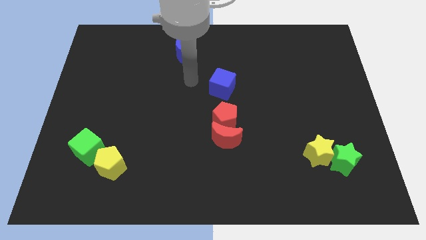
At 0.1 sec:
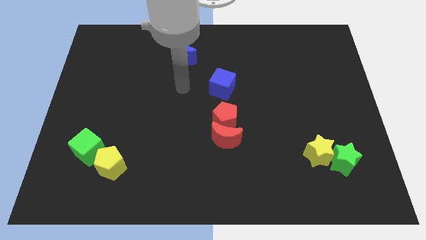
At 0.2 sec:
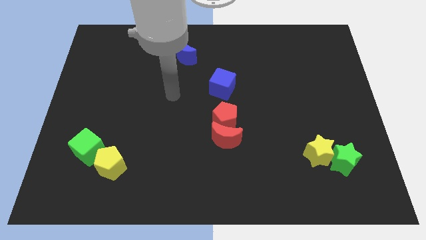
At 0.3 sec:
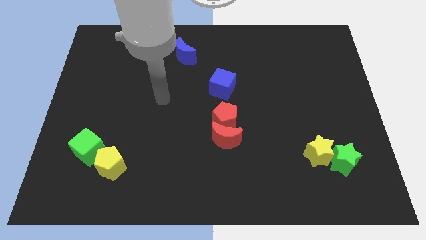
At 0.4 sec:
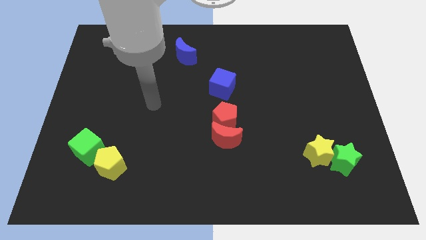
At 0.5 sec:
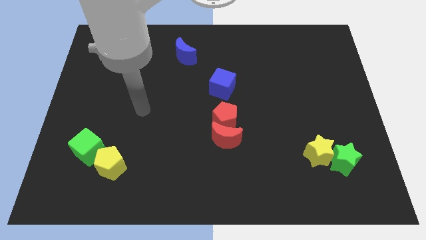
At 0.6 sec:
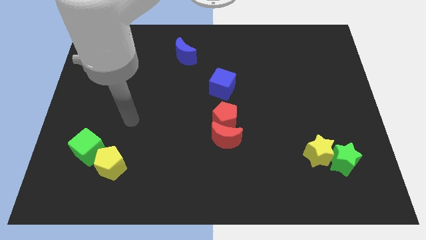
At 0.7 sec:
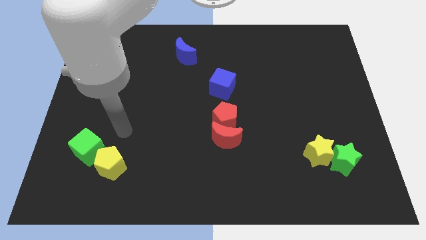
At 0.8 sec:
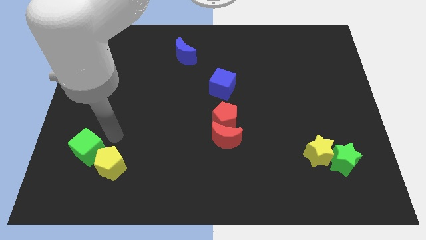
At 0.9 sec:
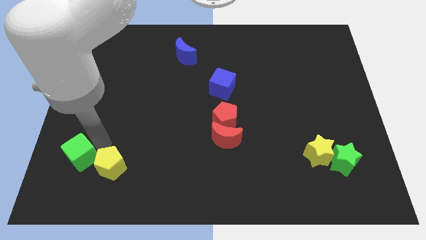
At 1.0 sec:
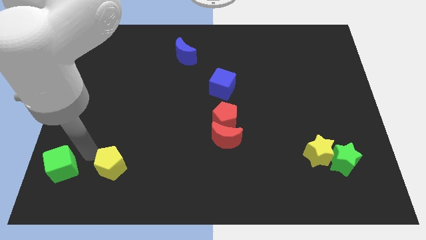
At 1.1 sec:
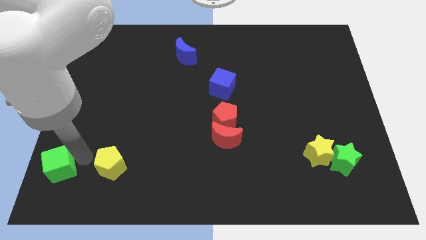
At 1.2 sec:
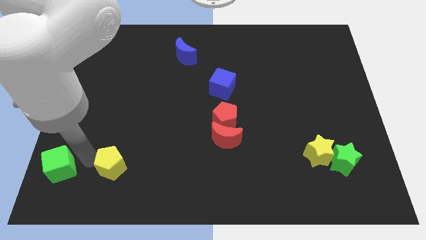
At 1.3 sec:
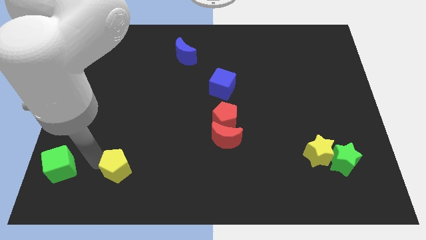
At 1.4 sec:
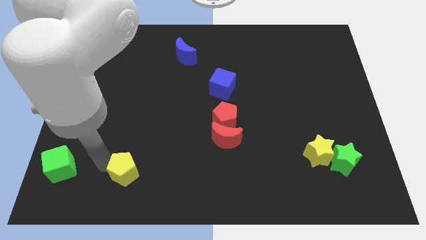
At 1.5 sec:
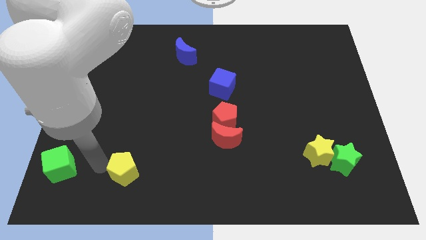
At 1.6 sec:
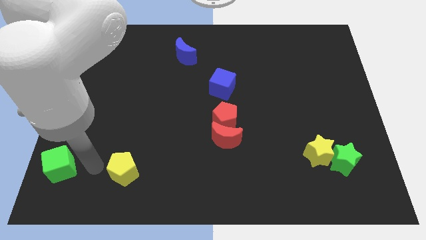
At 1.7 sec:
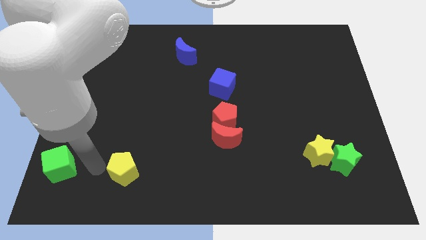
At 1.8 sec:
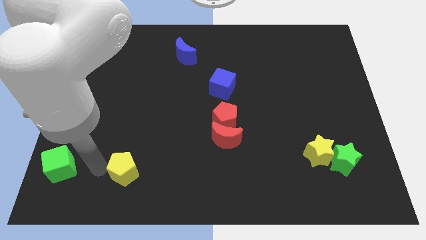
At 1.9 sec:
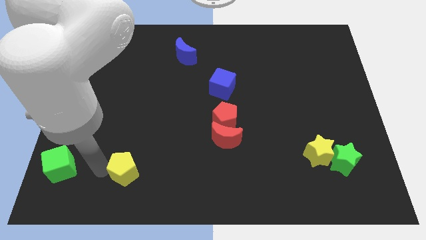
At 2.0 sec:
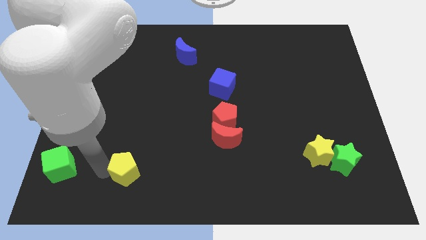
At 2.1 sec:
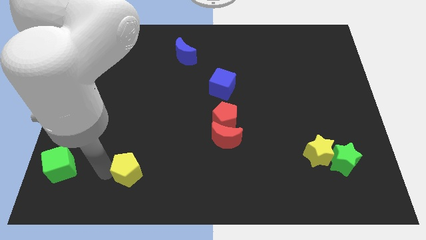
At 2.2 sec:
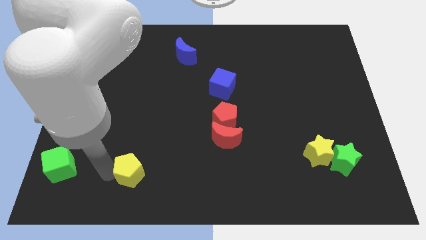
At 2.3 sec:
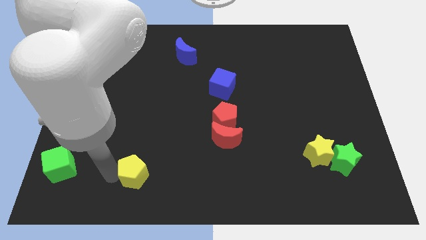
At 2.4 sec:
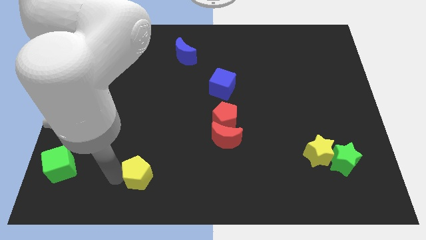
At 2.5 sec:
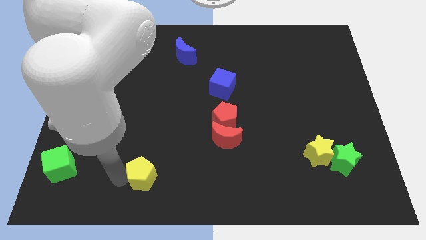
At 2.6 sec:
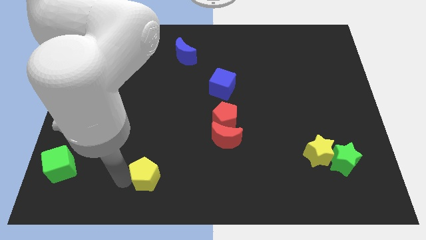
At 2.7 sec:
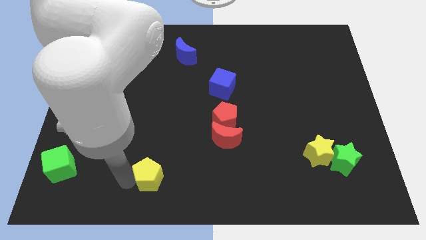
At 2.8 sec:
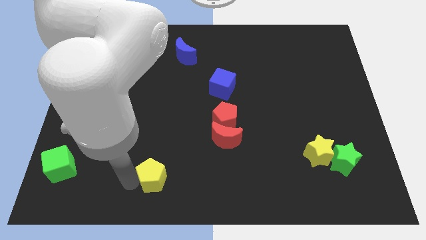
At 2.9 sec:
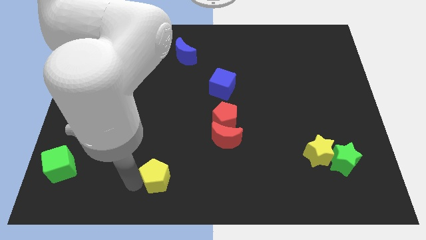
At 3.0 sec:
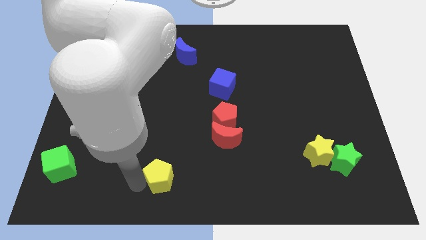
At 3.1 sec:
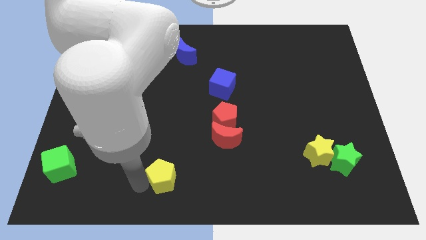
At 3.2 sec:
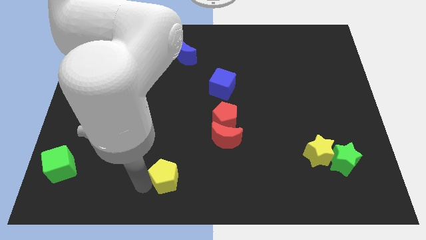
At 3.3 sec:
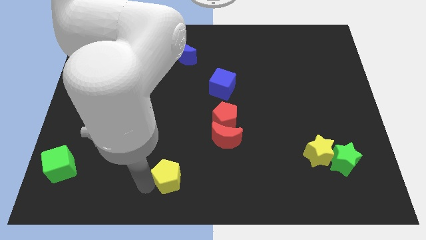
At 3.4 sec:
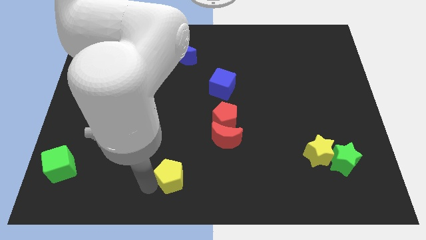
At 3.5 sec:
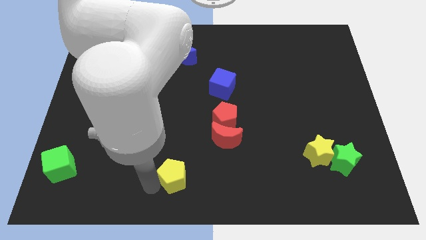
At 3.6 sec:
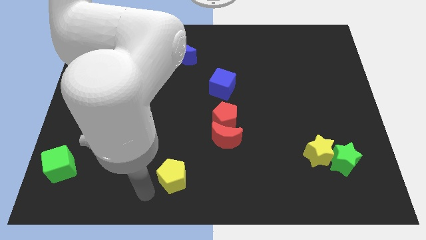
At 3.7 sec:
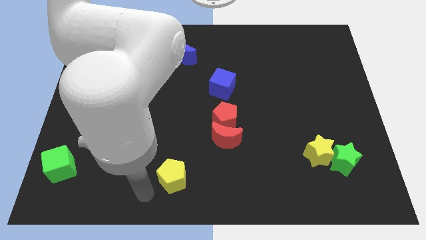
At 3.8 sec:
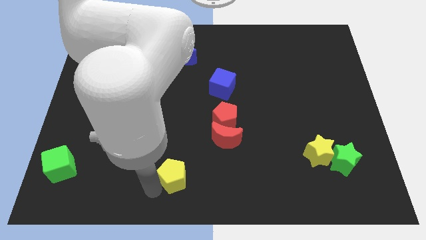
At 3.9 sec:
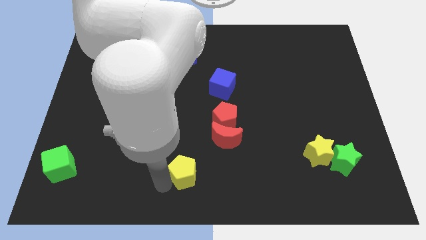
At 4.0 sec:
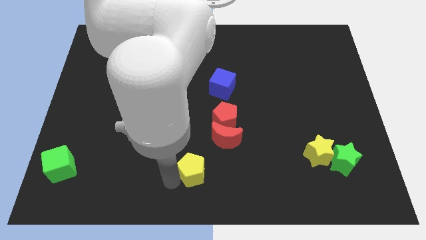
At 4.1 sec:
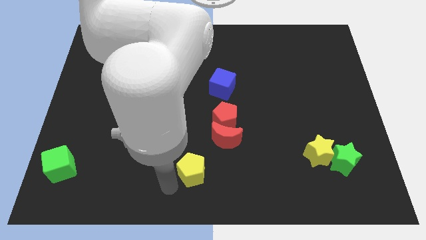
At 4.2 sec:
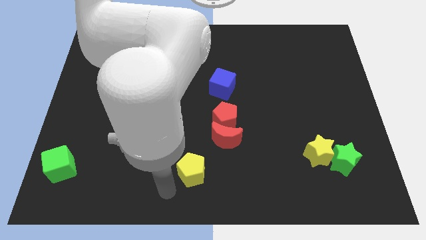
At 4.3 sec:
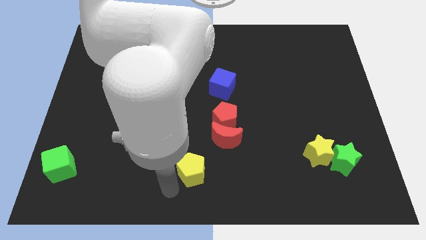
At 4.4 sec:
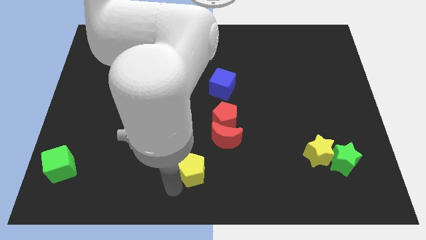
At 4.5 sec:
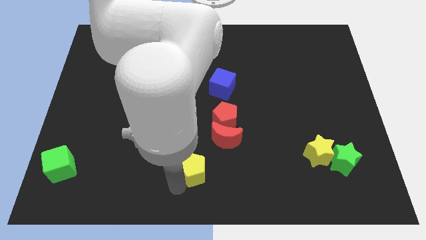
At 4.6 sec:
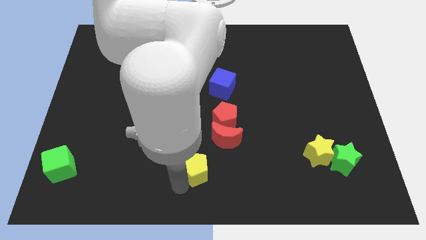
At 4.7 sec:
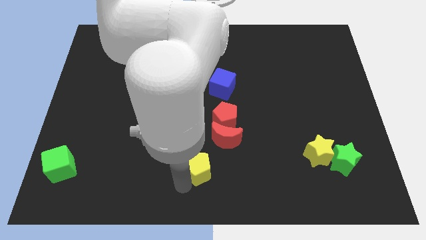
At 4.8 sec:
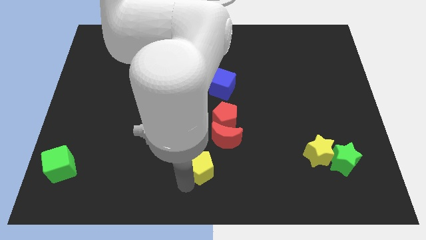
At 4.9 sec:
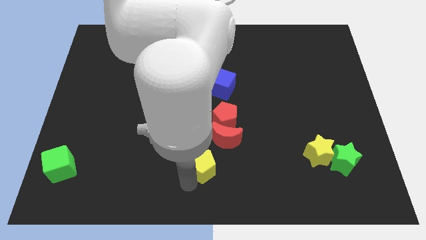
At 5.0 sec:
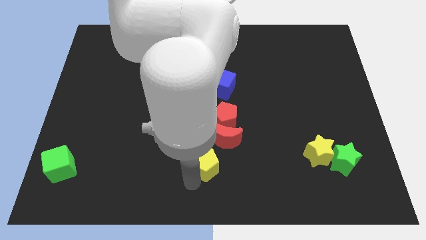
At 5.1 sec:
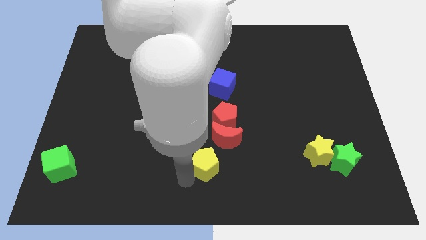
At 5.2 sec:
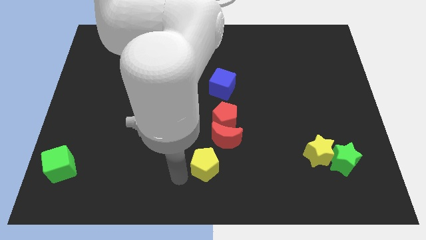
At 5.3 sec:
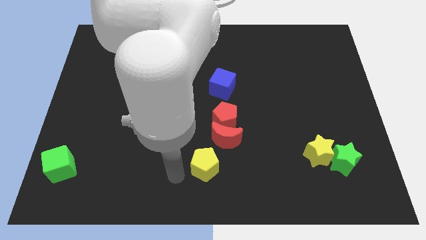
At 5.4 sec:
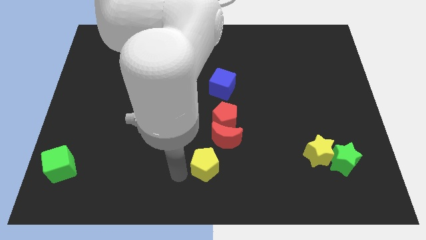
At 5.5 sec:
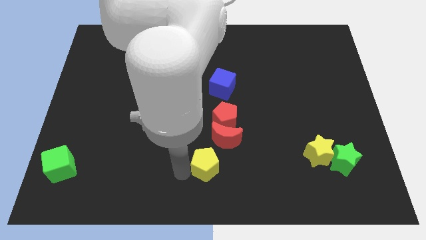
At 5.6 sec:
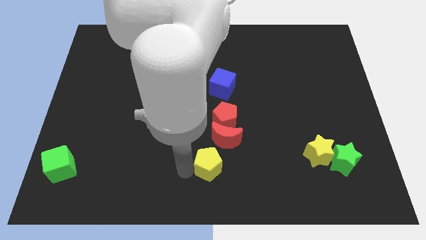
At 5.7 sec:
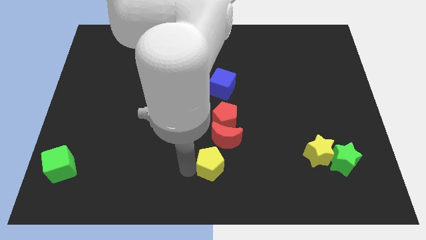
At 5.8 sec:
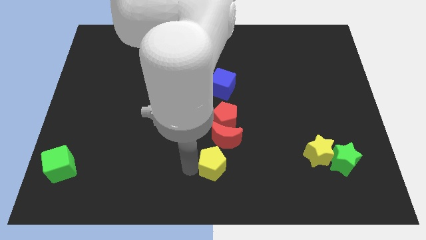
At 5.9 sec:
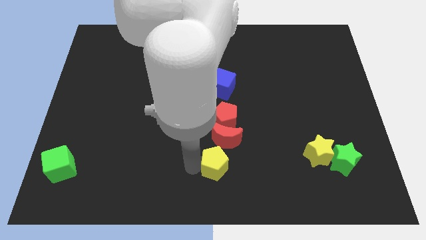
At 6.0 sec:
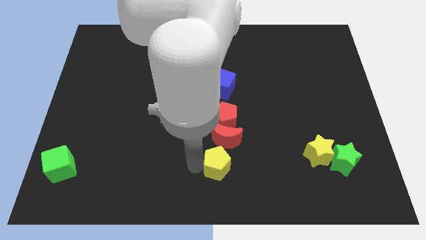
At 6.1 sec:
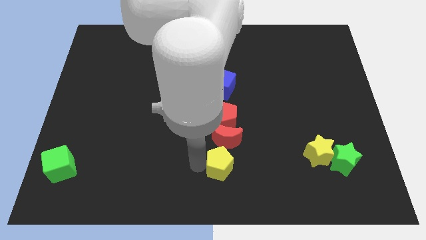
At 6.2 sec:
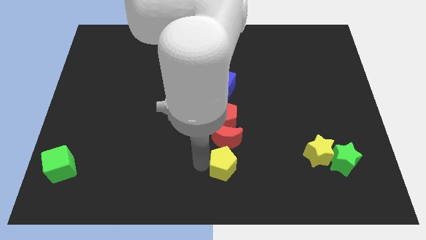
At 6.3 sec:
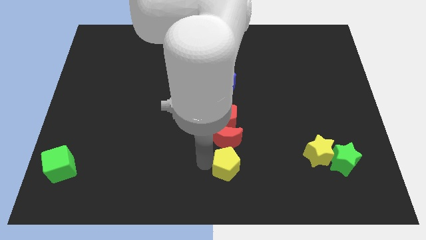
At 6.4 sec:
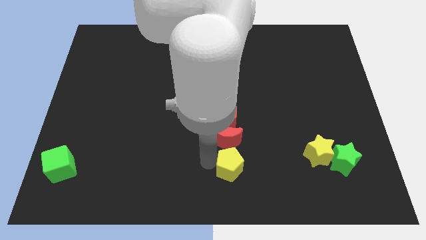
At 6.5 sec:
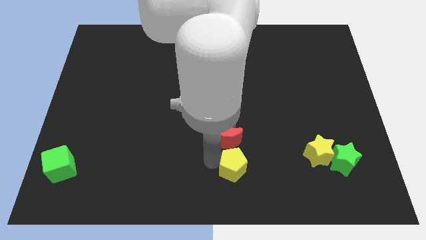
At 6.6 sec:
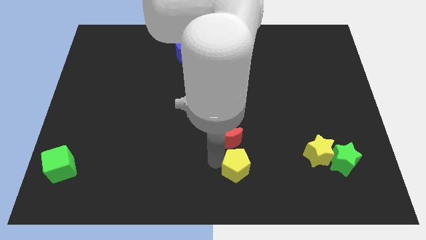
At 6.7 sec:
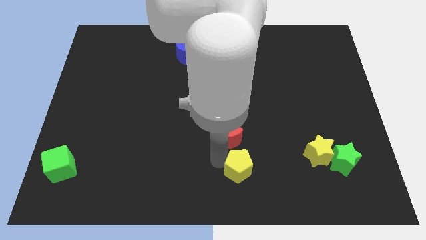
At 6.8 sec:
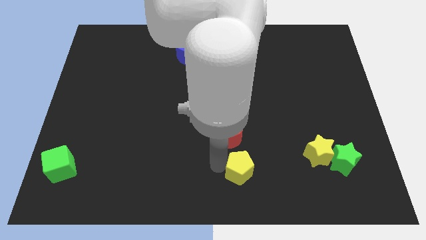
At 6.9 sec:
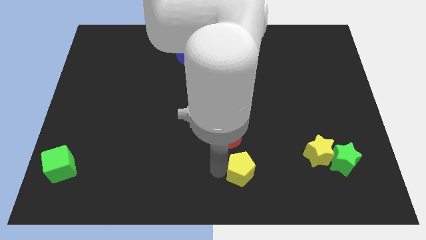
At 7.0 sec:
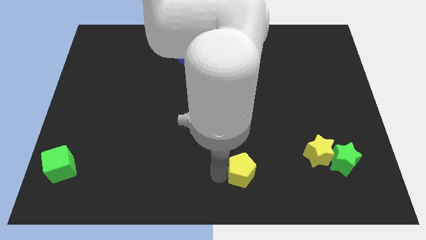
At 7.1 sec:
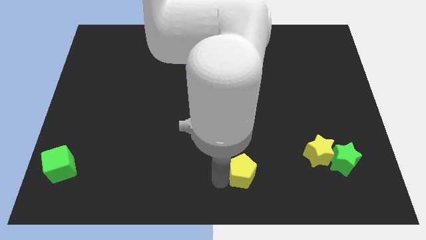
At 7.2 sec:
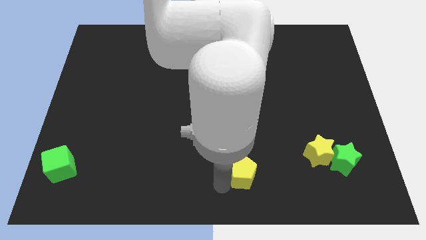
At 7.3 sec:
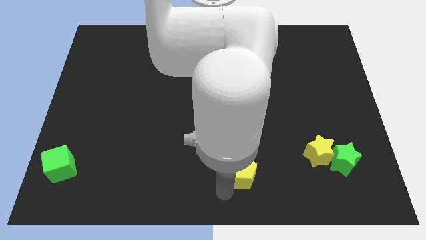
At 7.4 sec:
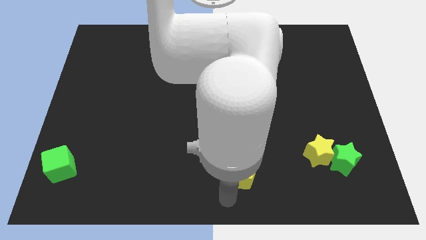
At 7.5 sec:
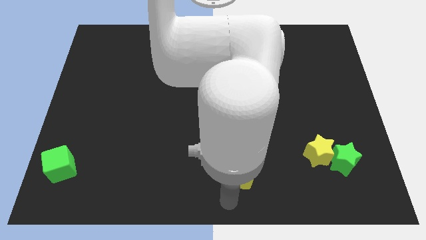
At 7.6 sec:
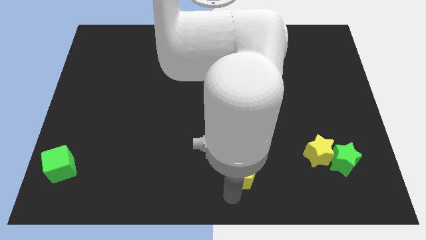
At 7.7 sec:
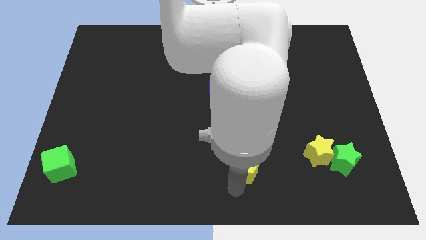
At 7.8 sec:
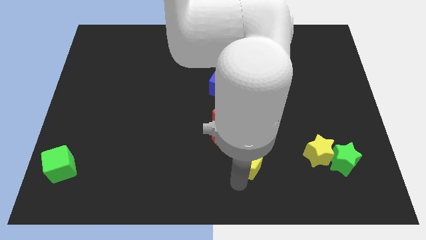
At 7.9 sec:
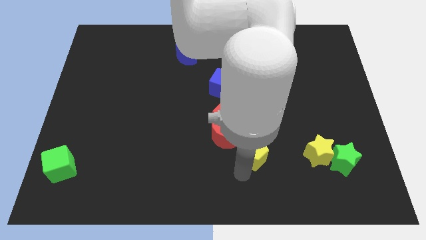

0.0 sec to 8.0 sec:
put the yellow pentagon right of the red moon
